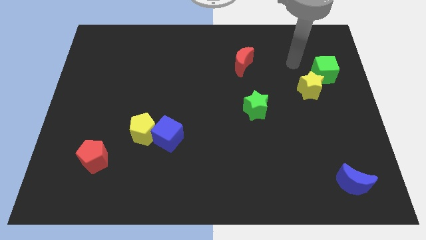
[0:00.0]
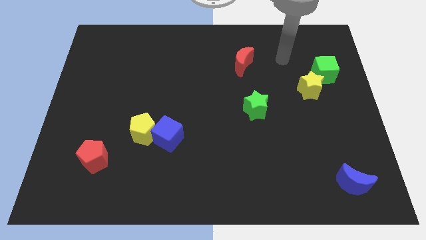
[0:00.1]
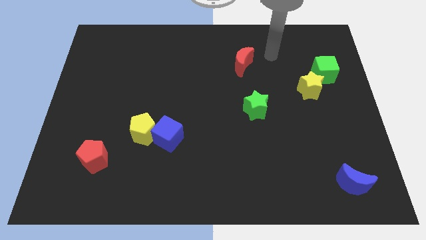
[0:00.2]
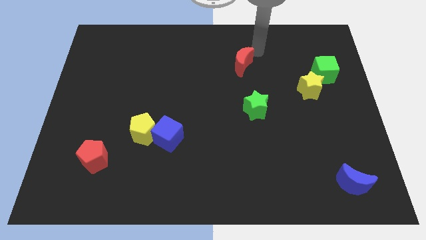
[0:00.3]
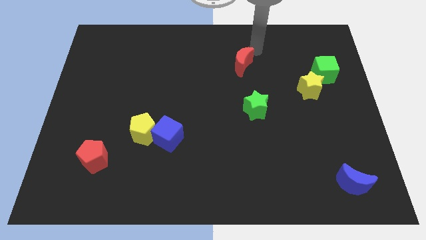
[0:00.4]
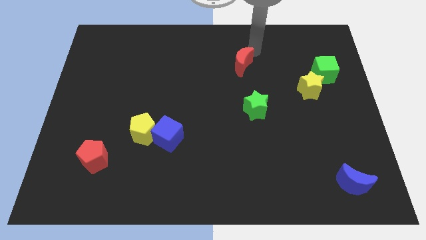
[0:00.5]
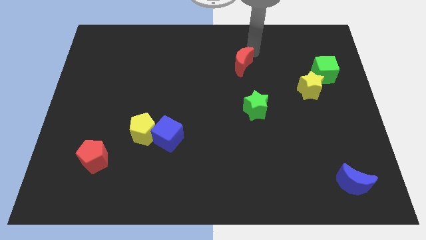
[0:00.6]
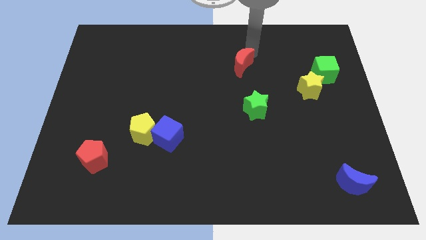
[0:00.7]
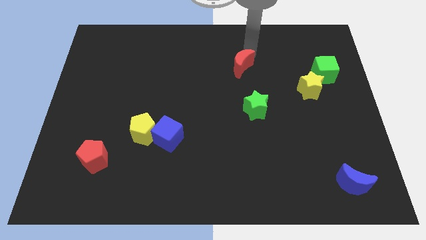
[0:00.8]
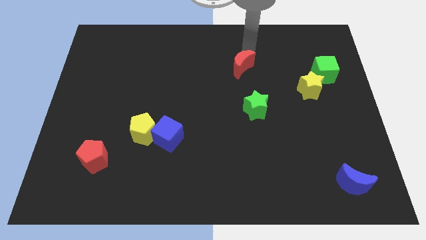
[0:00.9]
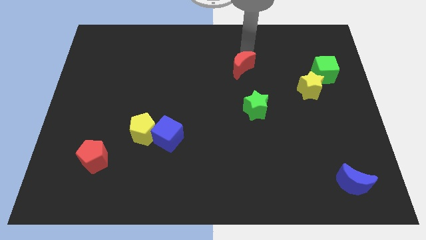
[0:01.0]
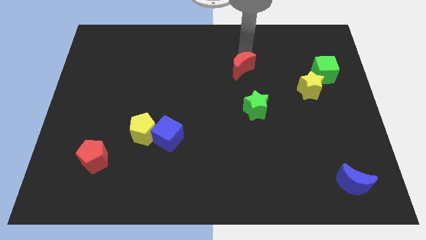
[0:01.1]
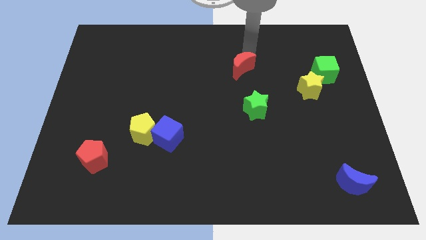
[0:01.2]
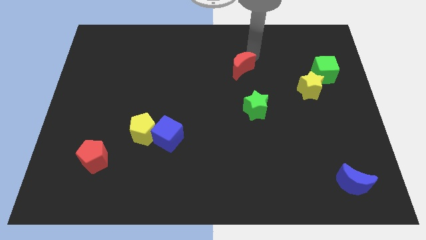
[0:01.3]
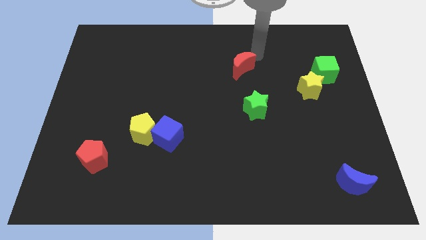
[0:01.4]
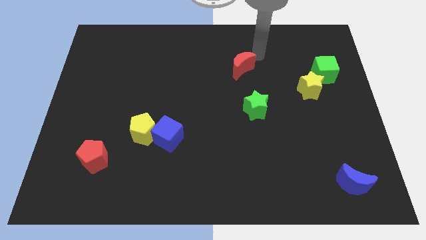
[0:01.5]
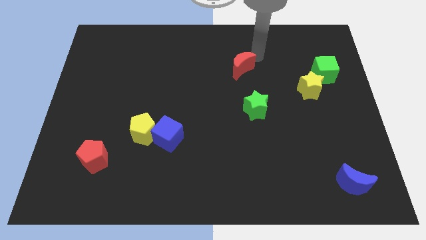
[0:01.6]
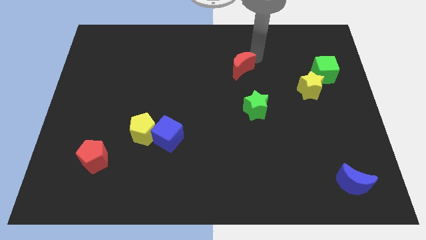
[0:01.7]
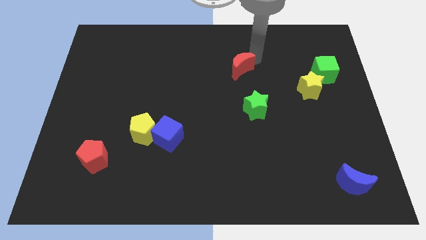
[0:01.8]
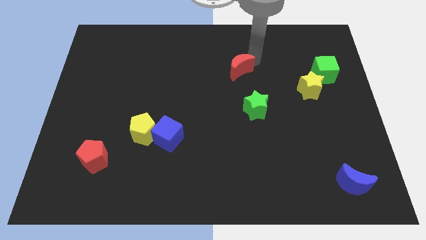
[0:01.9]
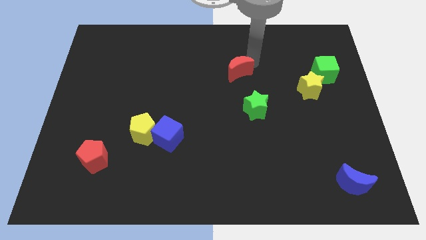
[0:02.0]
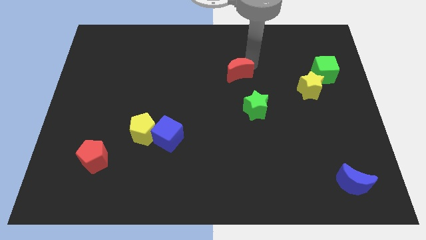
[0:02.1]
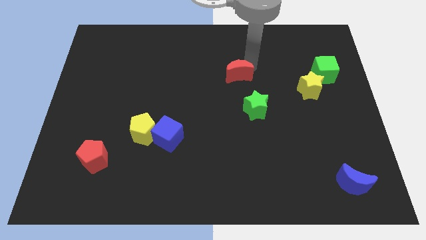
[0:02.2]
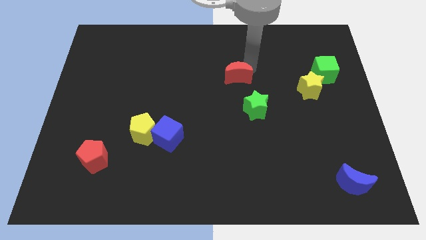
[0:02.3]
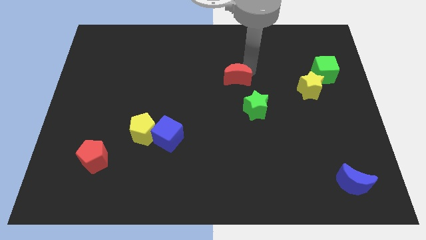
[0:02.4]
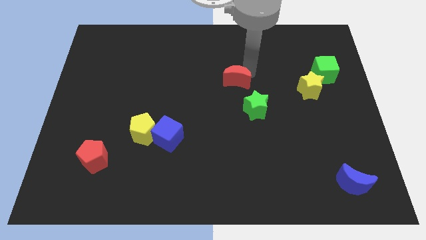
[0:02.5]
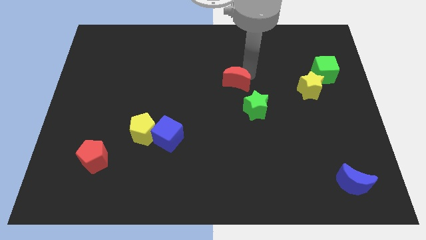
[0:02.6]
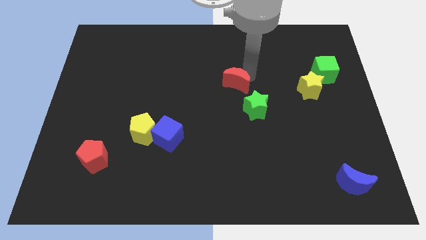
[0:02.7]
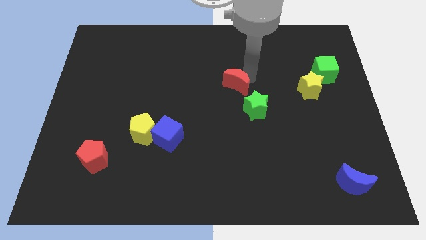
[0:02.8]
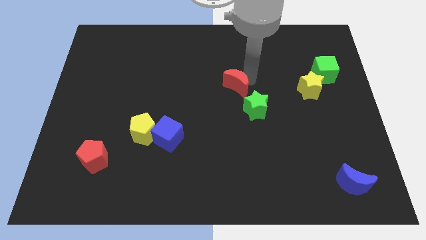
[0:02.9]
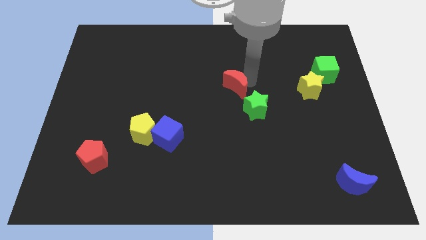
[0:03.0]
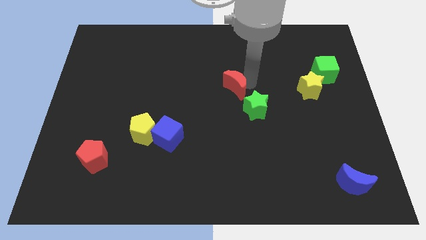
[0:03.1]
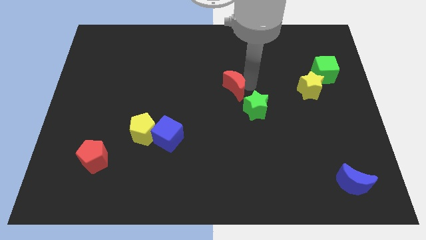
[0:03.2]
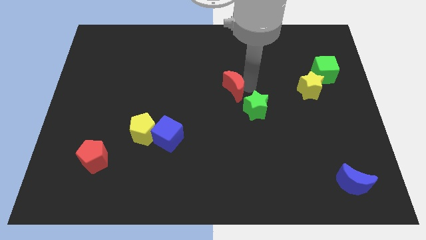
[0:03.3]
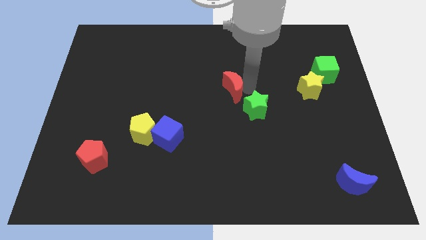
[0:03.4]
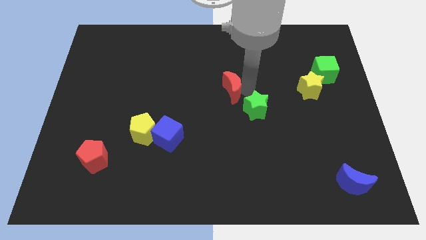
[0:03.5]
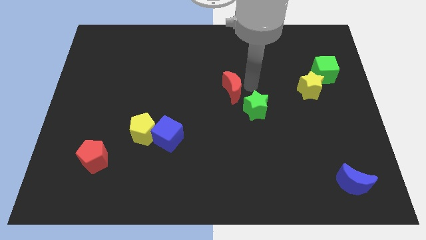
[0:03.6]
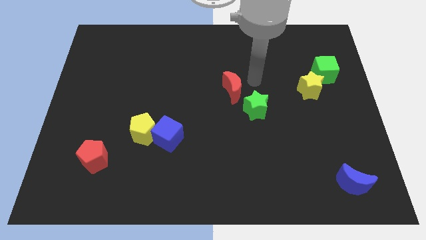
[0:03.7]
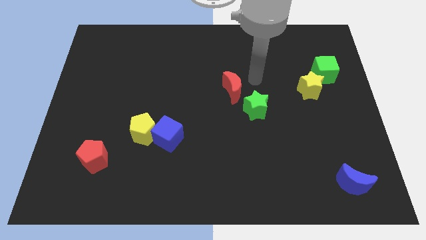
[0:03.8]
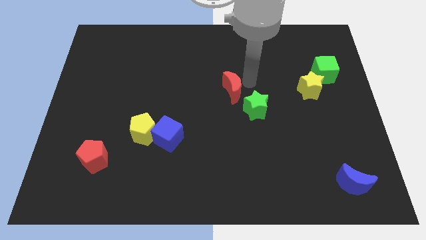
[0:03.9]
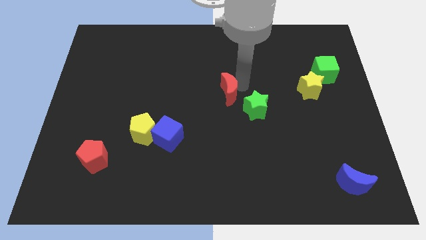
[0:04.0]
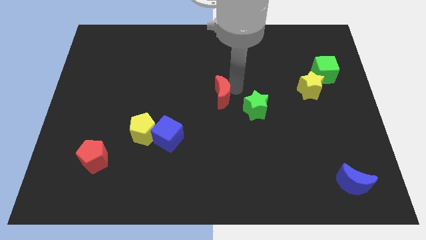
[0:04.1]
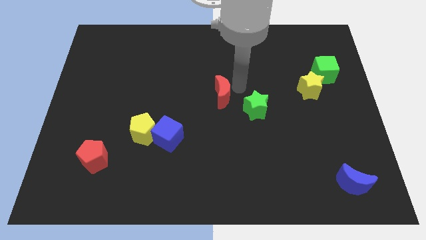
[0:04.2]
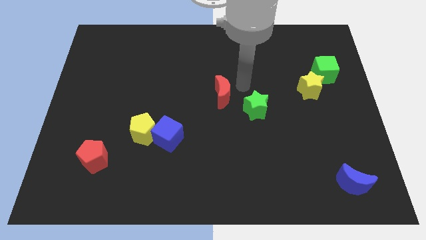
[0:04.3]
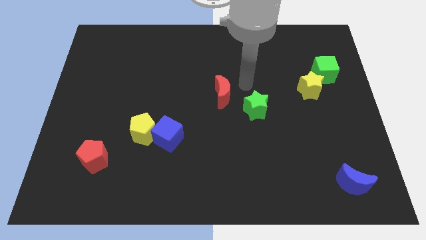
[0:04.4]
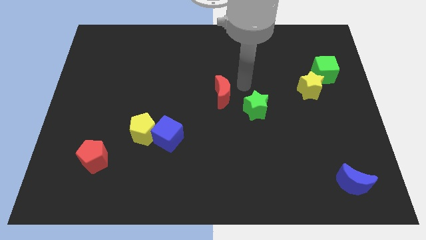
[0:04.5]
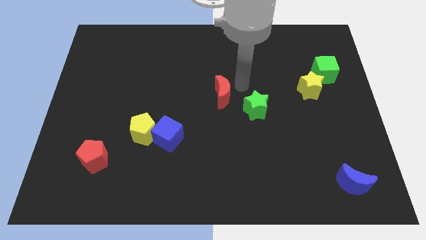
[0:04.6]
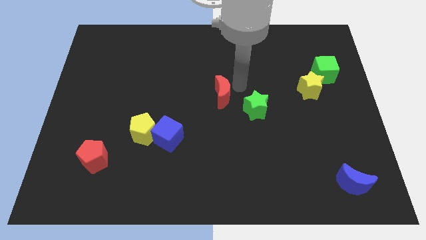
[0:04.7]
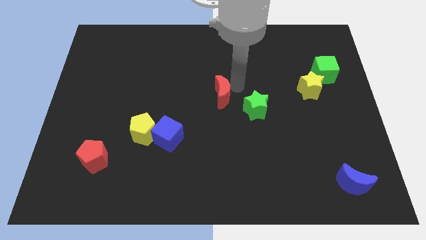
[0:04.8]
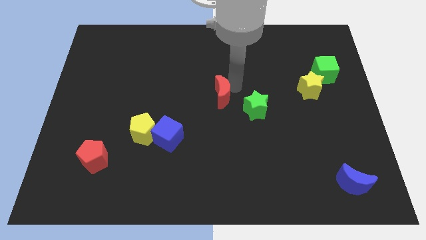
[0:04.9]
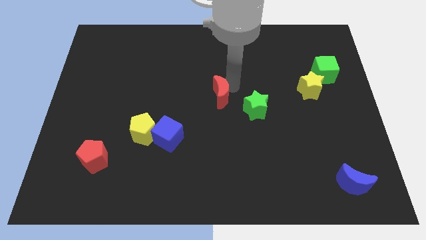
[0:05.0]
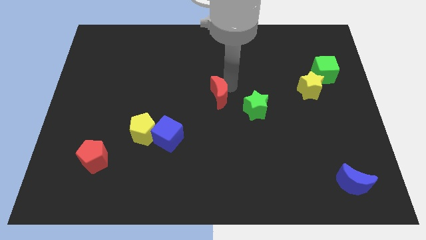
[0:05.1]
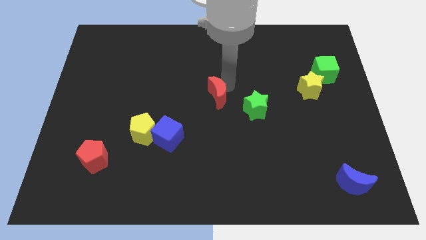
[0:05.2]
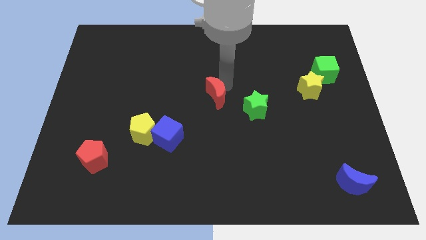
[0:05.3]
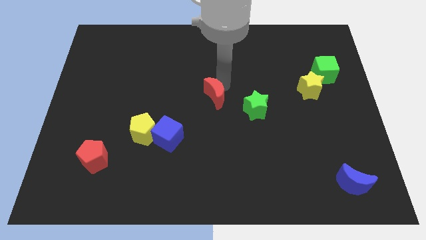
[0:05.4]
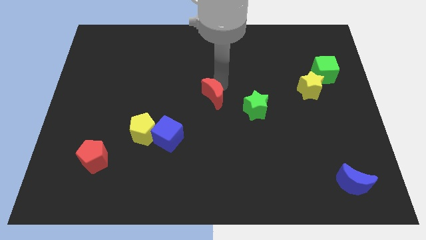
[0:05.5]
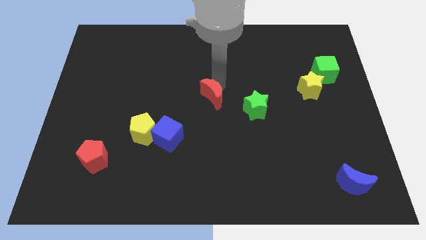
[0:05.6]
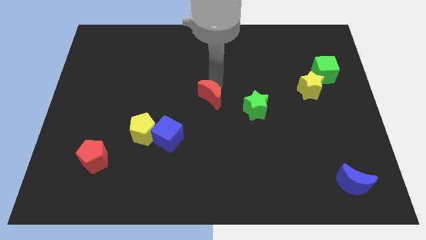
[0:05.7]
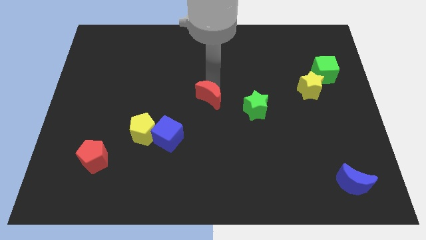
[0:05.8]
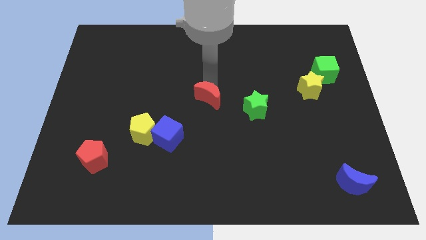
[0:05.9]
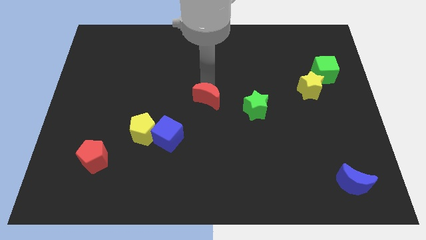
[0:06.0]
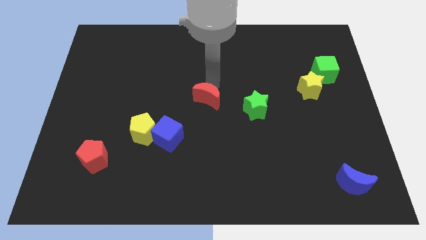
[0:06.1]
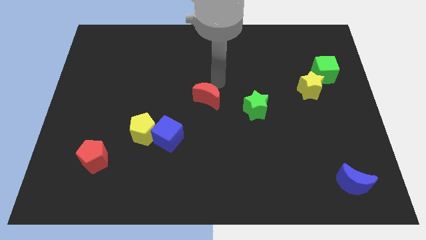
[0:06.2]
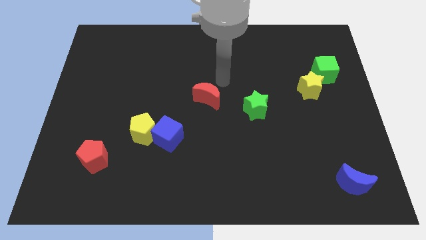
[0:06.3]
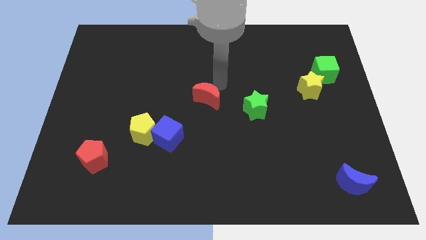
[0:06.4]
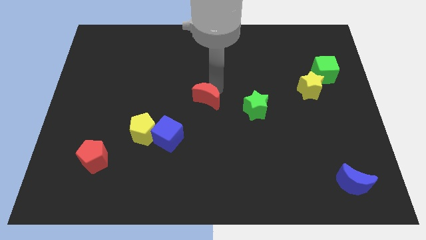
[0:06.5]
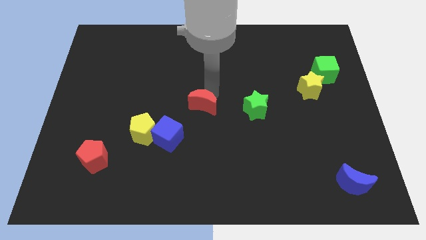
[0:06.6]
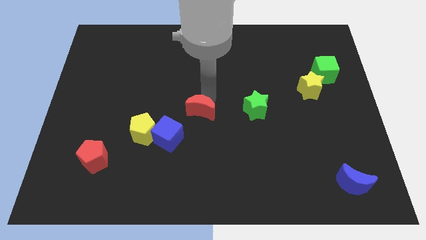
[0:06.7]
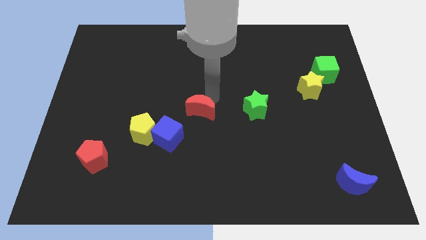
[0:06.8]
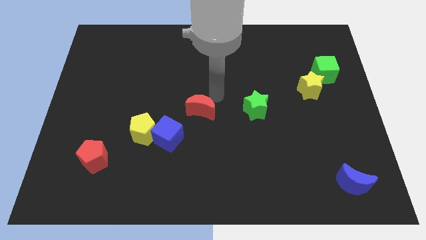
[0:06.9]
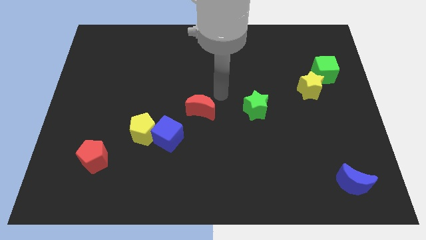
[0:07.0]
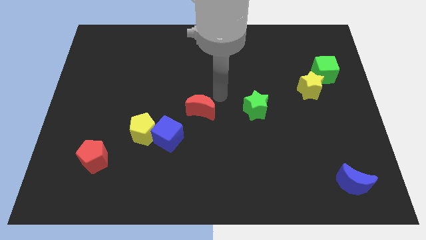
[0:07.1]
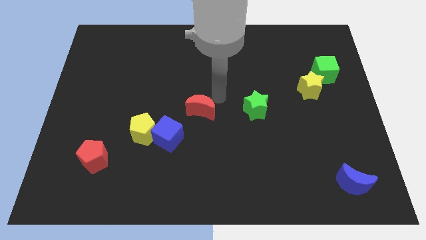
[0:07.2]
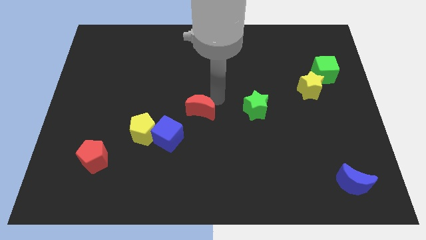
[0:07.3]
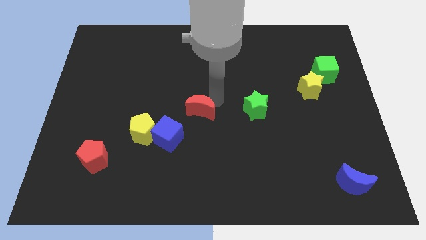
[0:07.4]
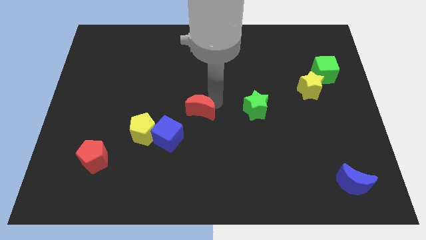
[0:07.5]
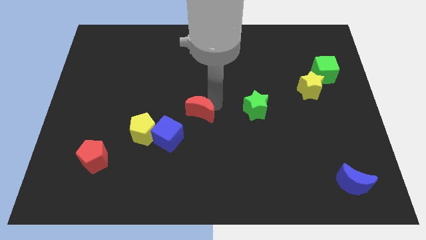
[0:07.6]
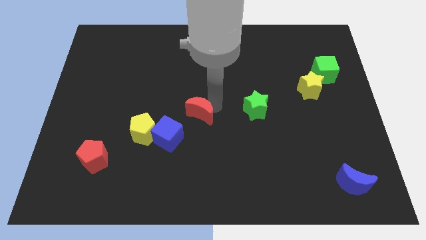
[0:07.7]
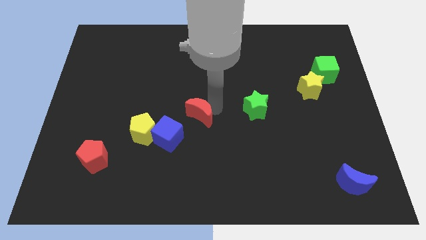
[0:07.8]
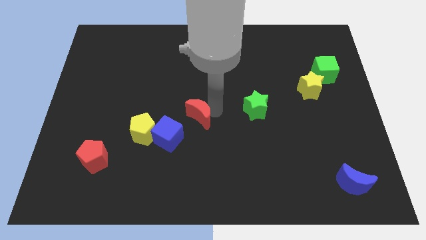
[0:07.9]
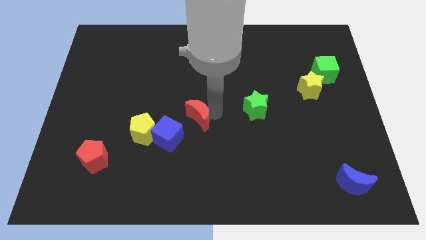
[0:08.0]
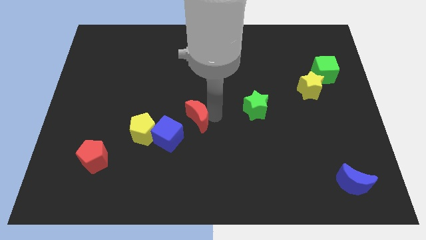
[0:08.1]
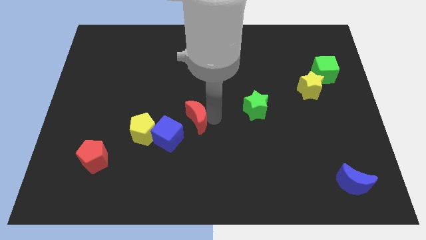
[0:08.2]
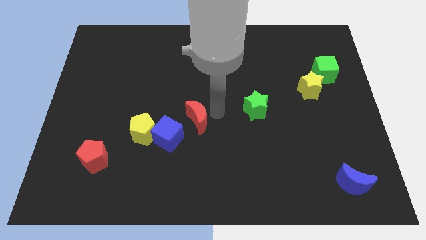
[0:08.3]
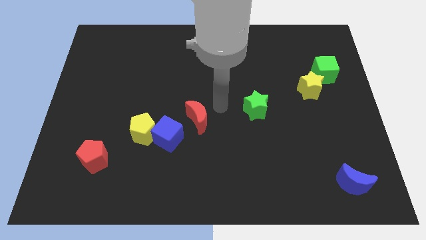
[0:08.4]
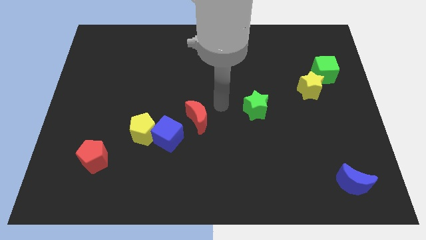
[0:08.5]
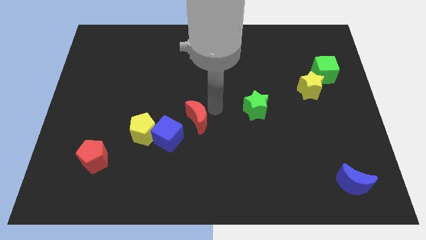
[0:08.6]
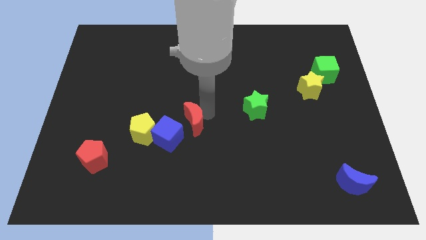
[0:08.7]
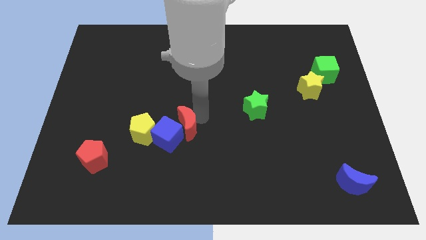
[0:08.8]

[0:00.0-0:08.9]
put the red moon to the blue cube
